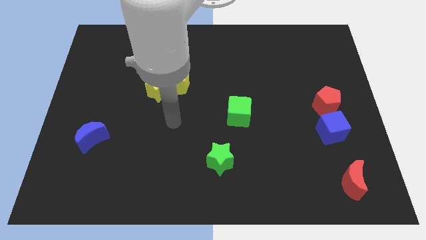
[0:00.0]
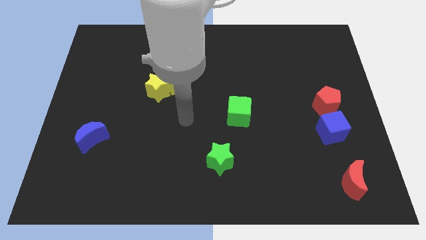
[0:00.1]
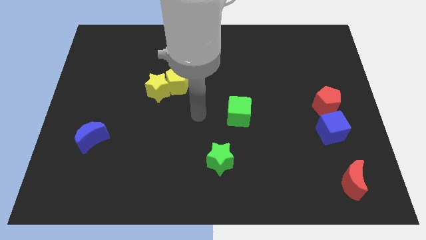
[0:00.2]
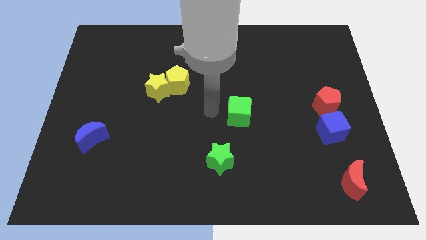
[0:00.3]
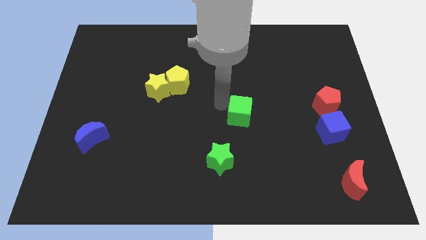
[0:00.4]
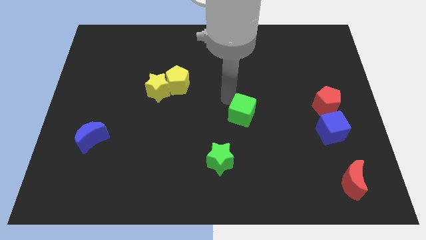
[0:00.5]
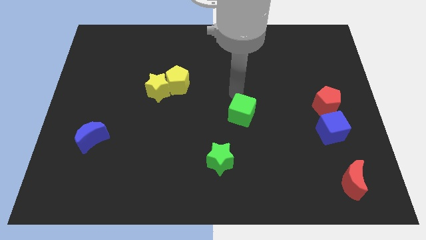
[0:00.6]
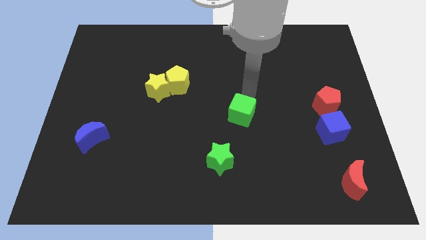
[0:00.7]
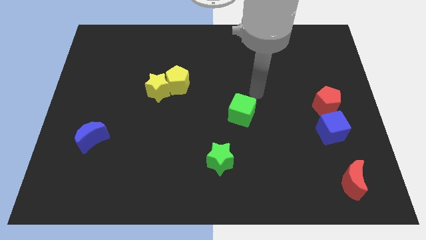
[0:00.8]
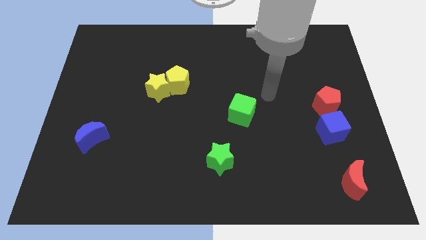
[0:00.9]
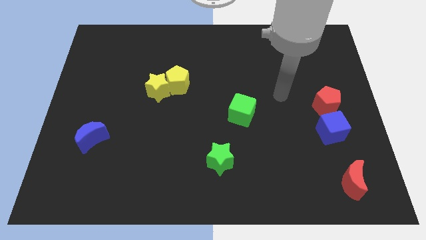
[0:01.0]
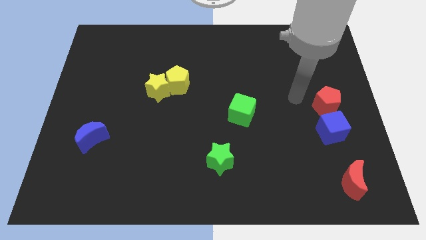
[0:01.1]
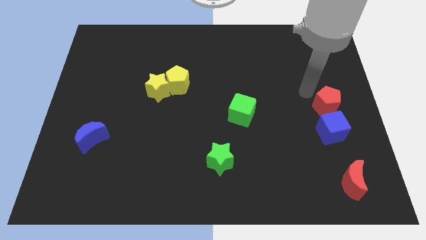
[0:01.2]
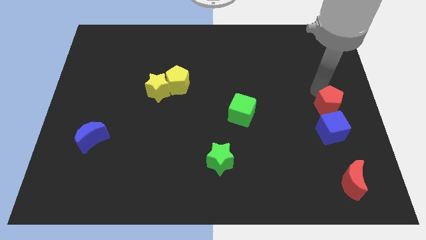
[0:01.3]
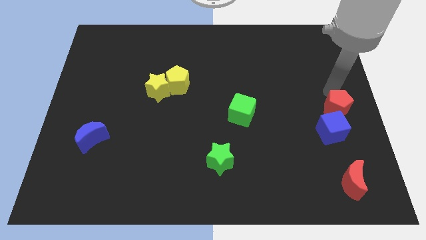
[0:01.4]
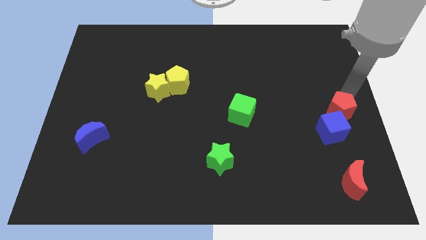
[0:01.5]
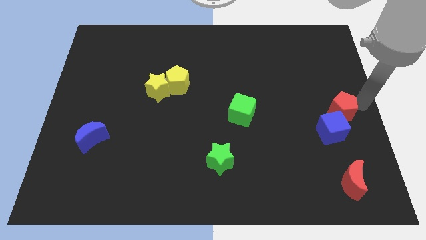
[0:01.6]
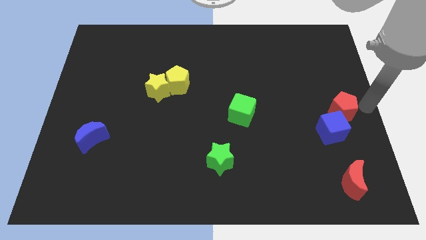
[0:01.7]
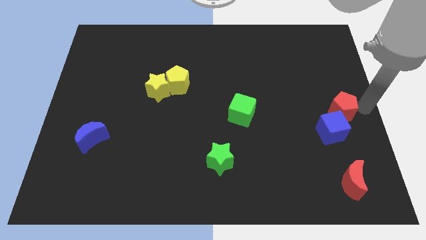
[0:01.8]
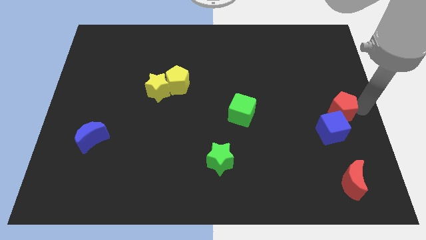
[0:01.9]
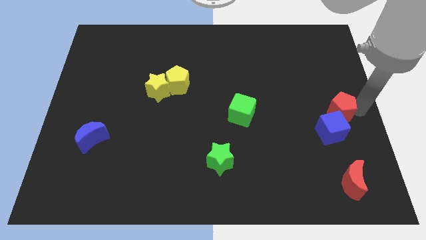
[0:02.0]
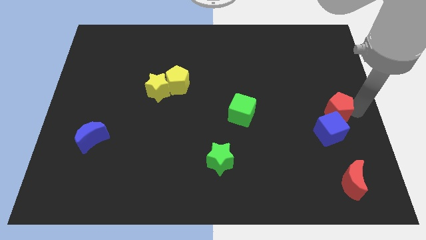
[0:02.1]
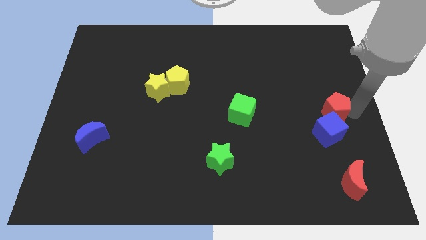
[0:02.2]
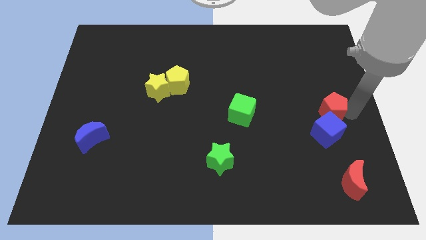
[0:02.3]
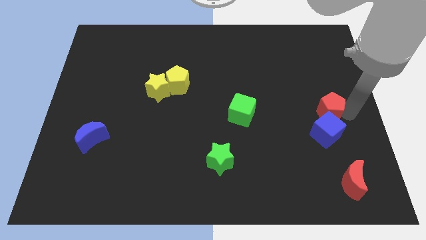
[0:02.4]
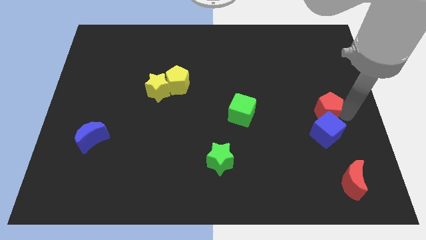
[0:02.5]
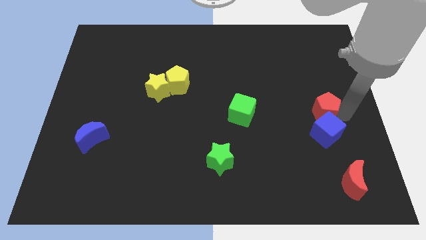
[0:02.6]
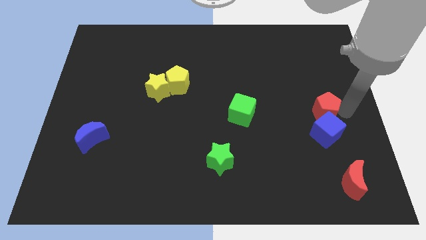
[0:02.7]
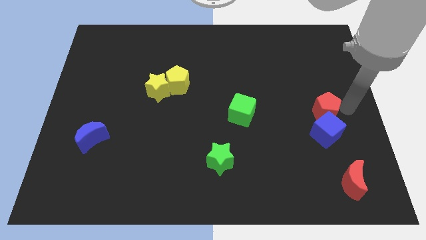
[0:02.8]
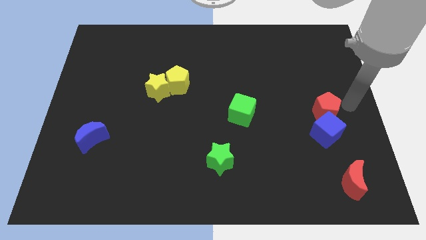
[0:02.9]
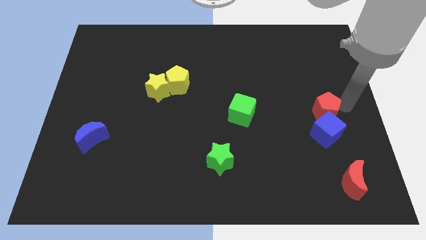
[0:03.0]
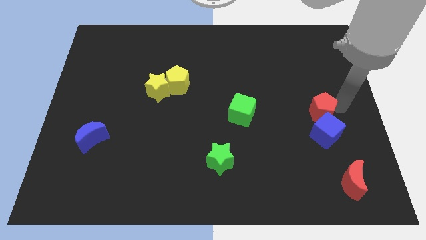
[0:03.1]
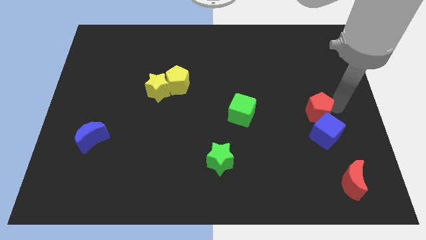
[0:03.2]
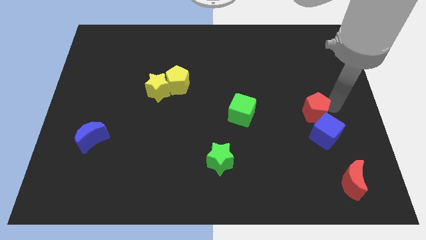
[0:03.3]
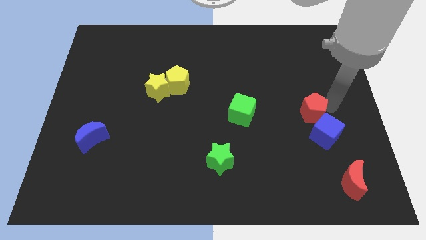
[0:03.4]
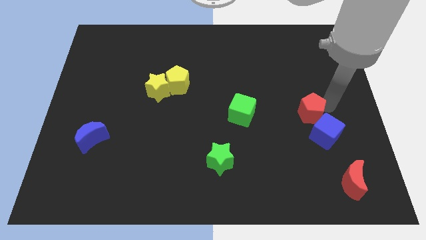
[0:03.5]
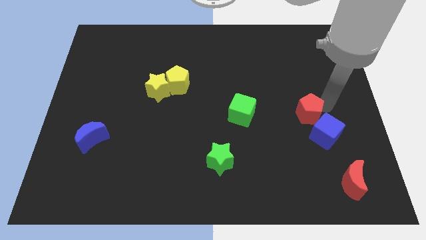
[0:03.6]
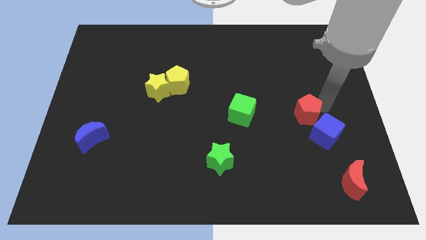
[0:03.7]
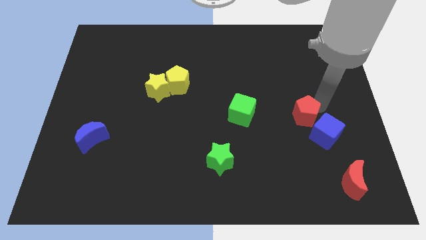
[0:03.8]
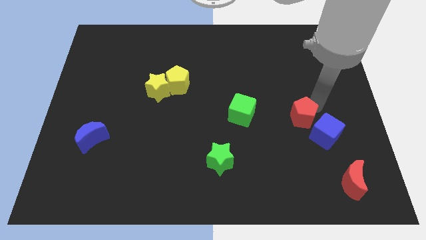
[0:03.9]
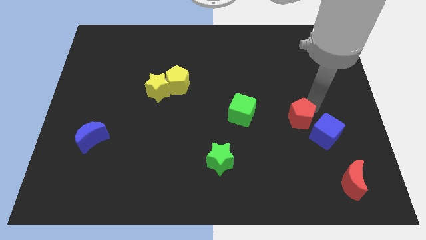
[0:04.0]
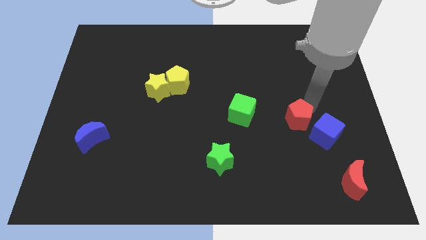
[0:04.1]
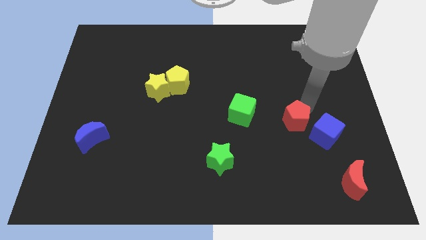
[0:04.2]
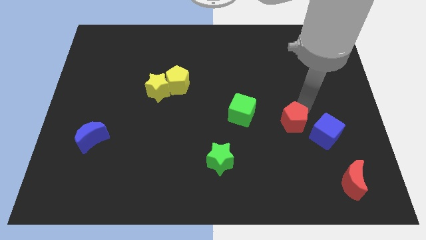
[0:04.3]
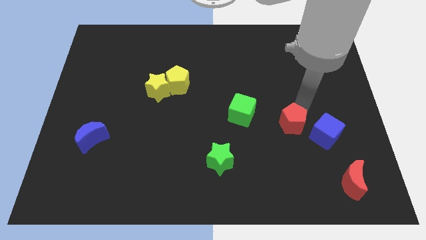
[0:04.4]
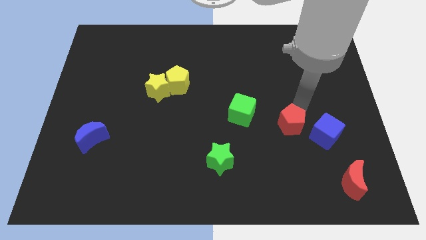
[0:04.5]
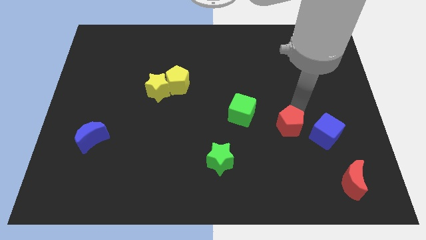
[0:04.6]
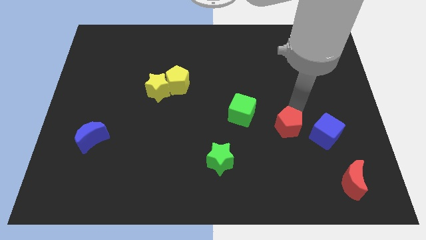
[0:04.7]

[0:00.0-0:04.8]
slide the red pentagon to the bottom right of the green cube

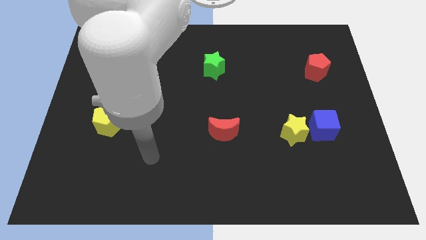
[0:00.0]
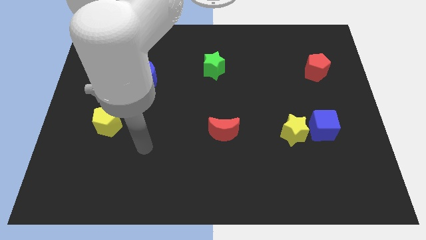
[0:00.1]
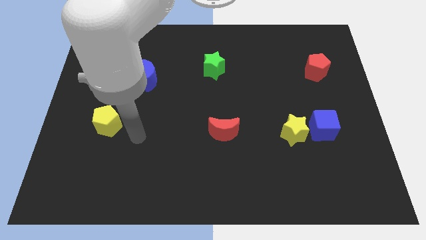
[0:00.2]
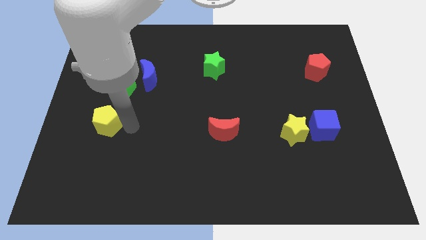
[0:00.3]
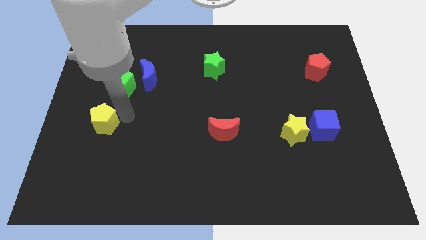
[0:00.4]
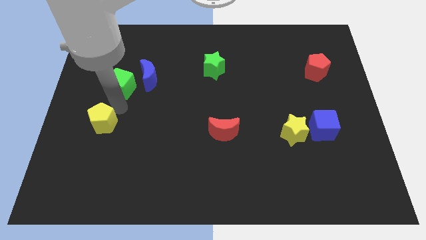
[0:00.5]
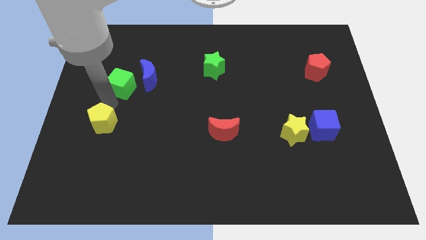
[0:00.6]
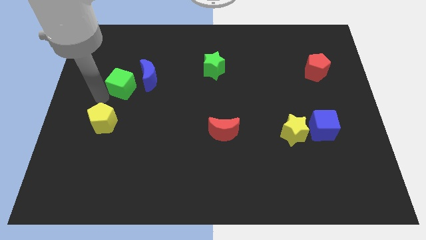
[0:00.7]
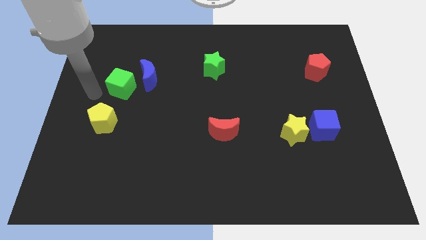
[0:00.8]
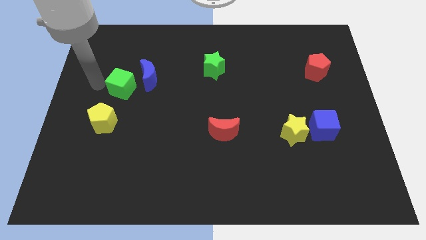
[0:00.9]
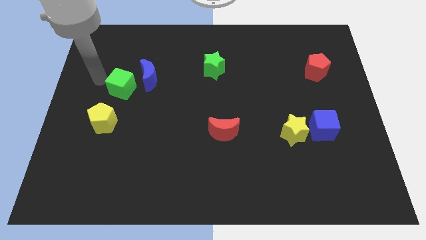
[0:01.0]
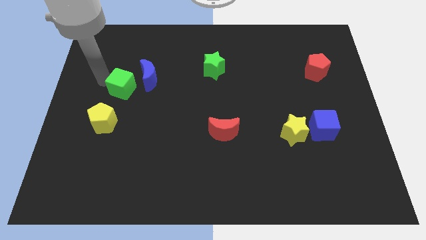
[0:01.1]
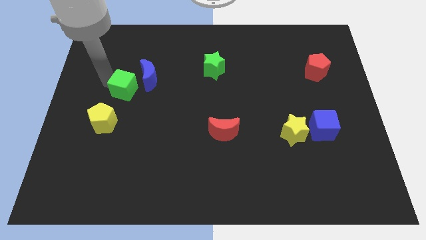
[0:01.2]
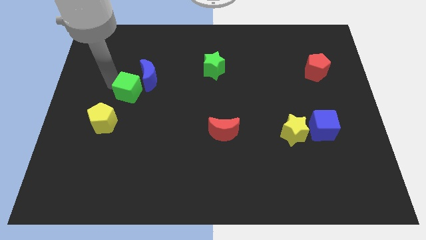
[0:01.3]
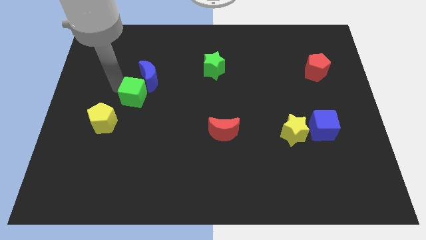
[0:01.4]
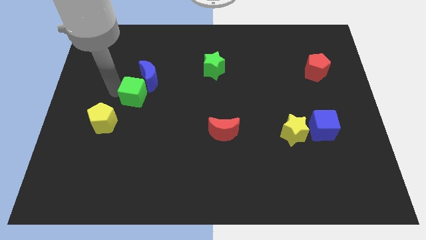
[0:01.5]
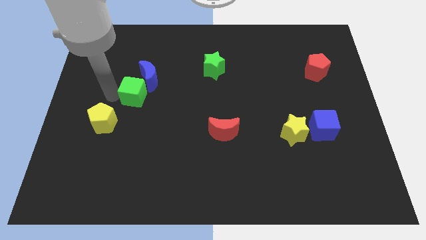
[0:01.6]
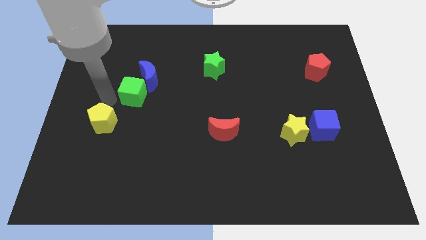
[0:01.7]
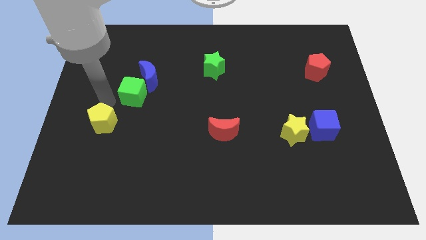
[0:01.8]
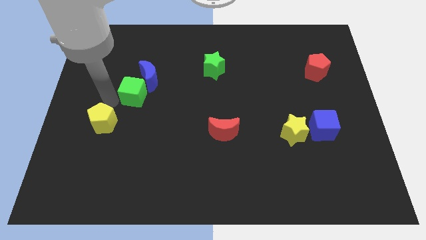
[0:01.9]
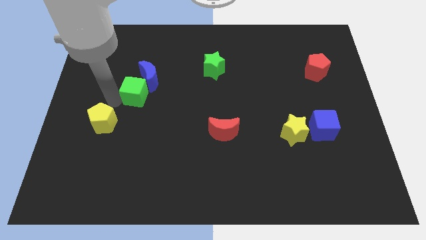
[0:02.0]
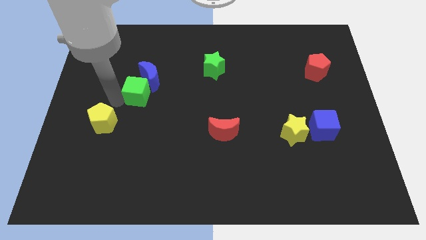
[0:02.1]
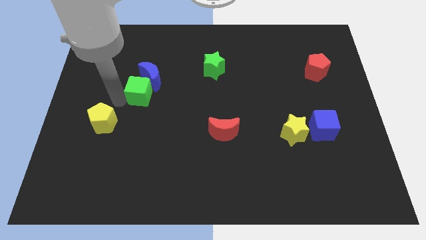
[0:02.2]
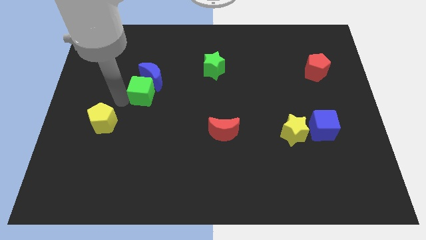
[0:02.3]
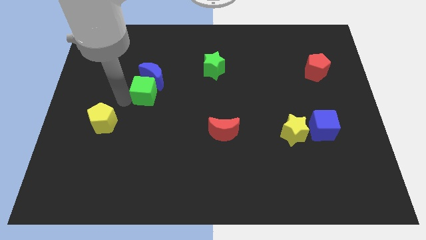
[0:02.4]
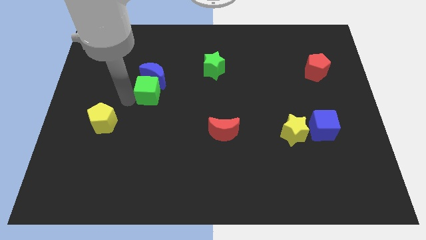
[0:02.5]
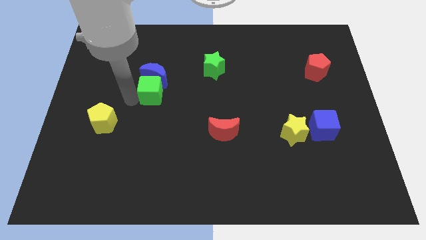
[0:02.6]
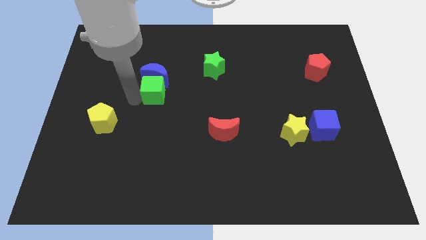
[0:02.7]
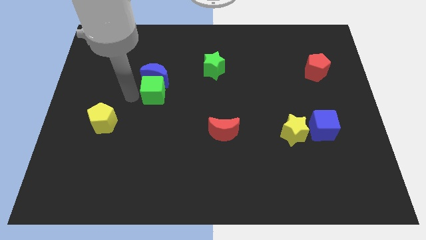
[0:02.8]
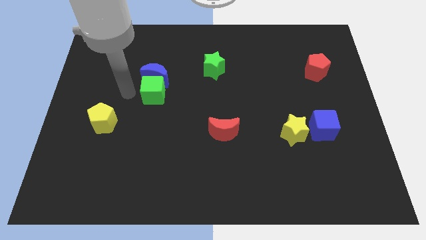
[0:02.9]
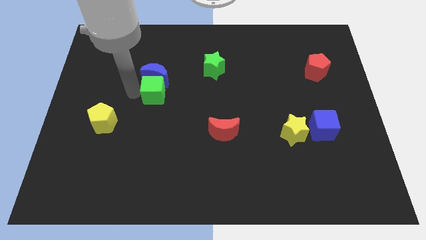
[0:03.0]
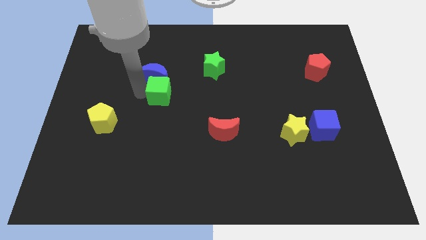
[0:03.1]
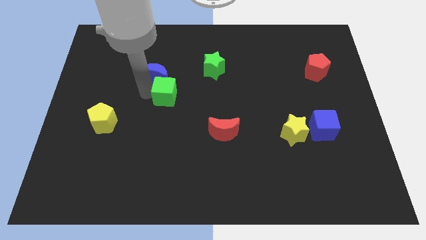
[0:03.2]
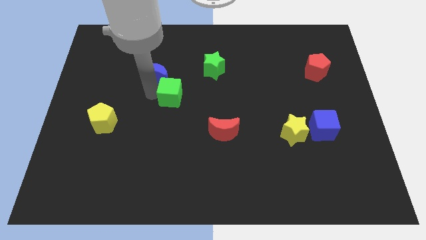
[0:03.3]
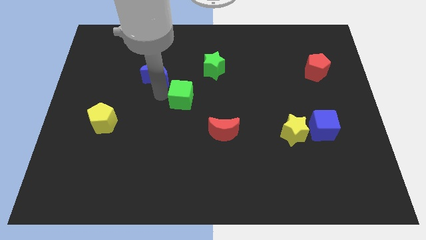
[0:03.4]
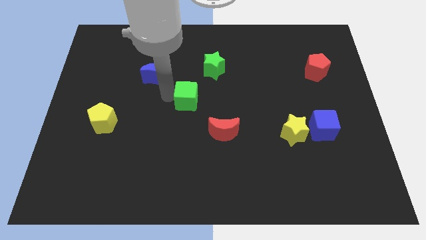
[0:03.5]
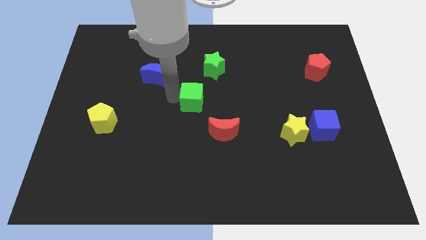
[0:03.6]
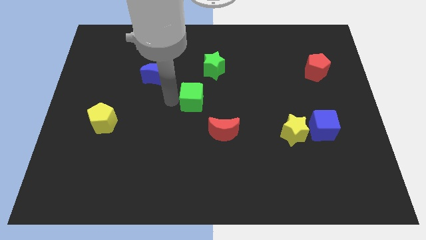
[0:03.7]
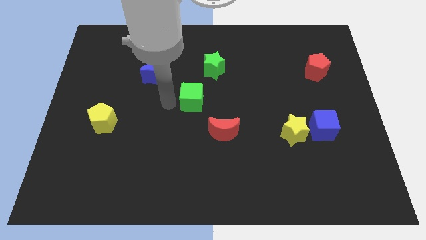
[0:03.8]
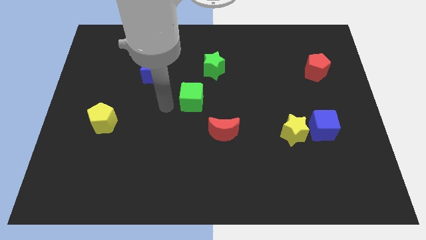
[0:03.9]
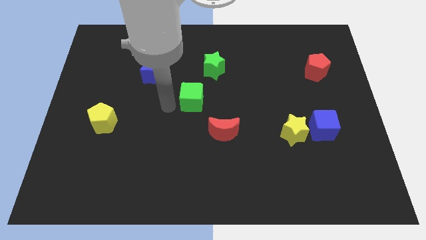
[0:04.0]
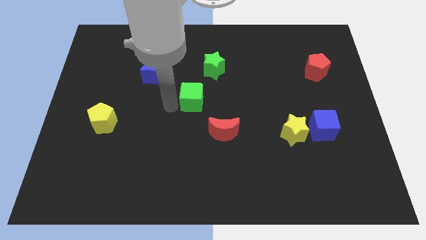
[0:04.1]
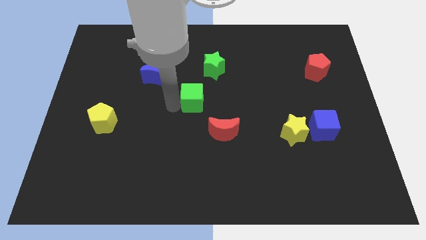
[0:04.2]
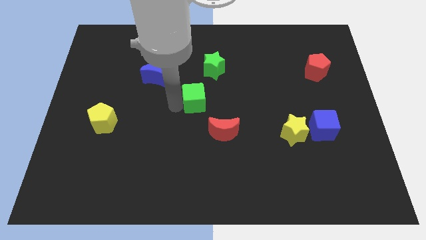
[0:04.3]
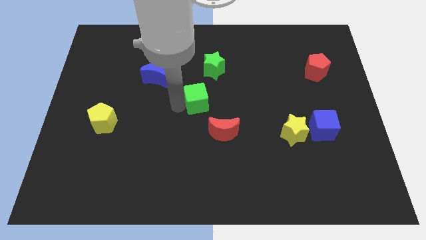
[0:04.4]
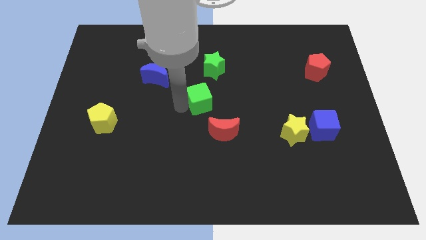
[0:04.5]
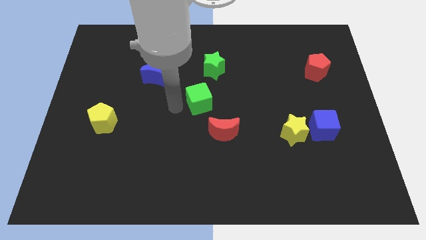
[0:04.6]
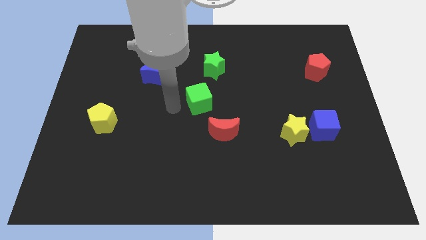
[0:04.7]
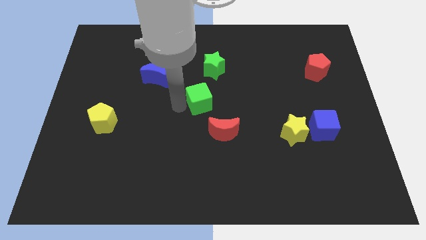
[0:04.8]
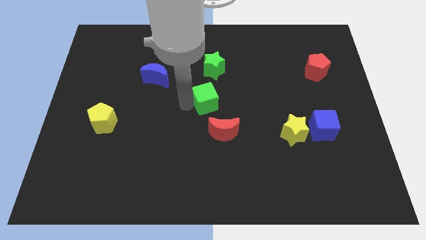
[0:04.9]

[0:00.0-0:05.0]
put the green cube to the top side of the red moon
